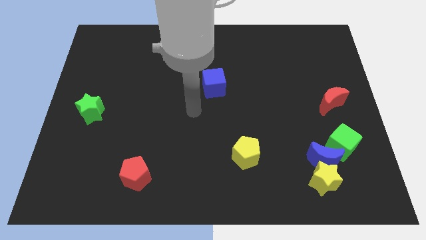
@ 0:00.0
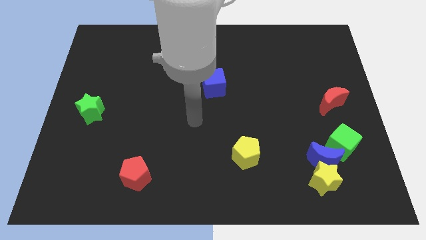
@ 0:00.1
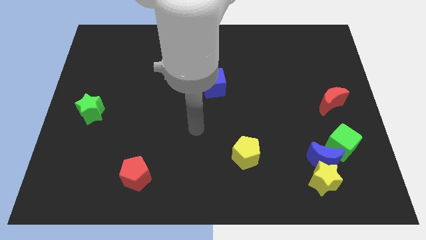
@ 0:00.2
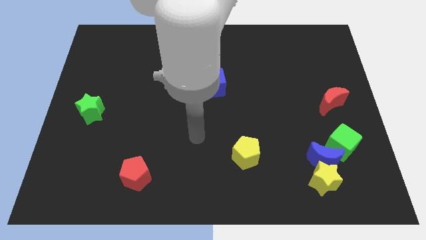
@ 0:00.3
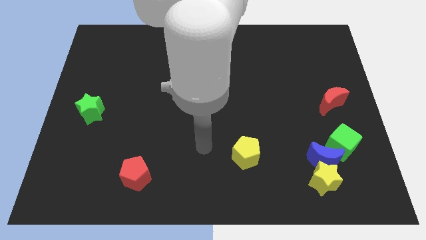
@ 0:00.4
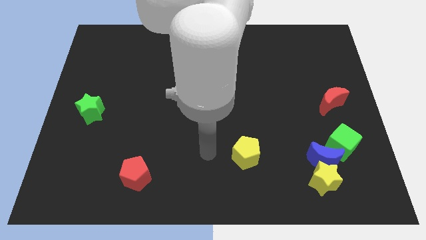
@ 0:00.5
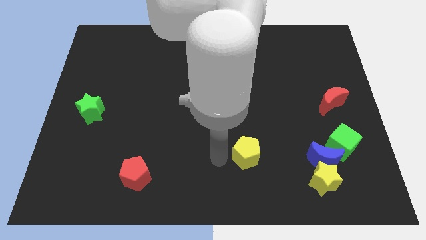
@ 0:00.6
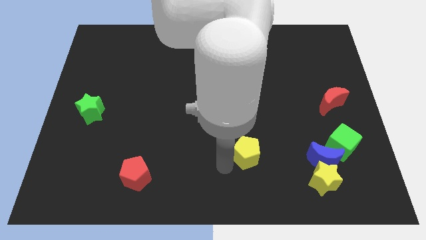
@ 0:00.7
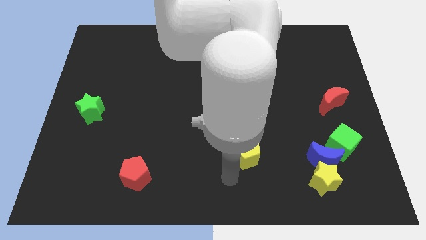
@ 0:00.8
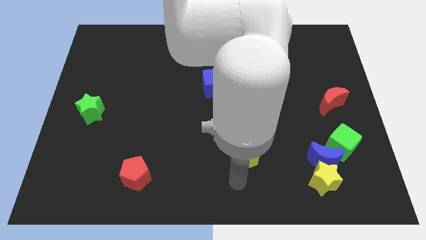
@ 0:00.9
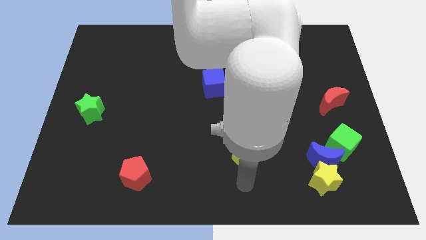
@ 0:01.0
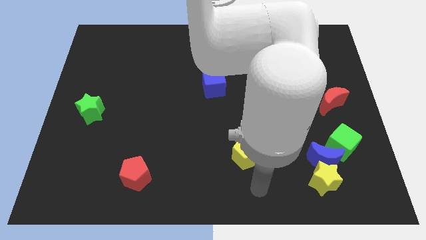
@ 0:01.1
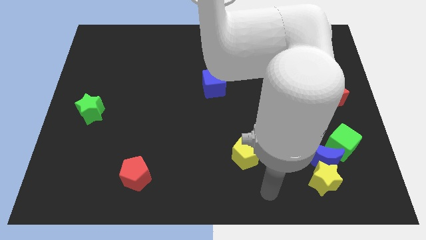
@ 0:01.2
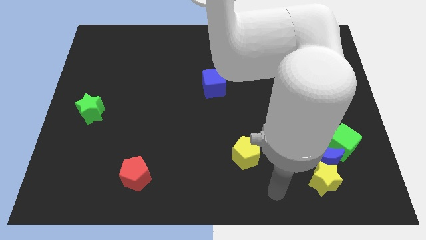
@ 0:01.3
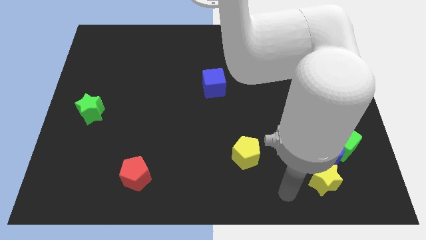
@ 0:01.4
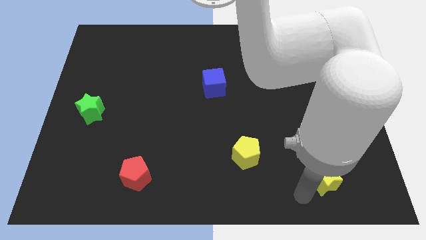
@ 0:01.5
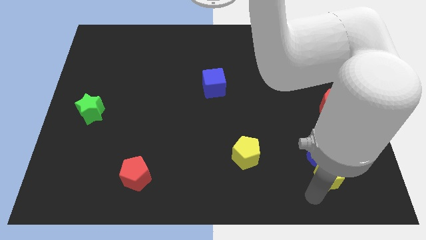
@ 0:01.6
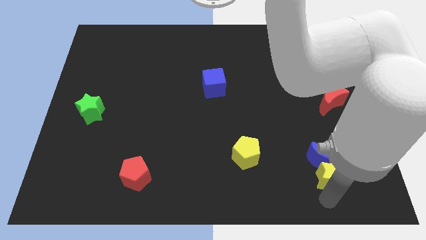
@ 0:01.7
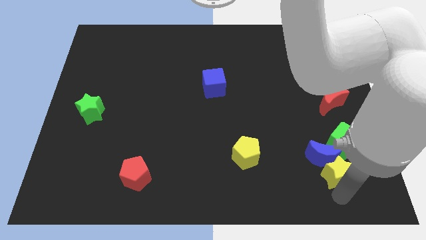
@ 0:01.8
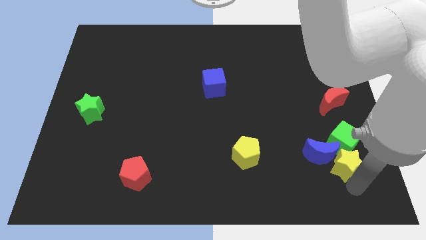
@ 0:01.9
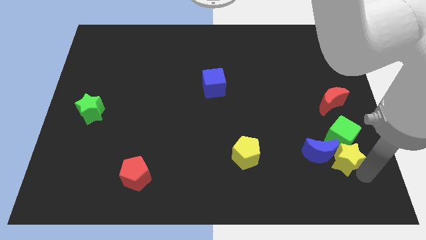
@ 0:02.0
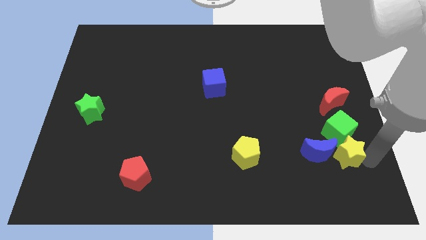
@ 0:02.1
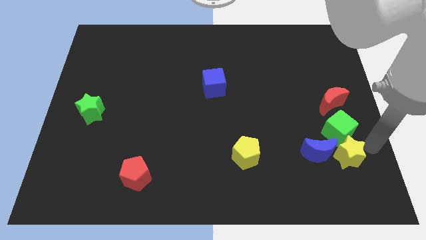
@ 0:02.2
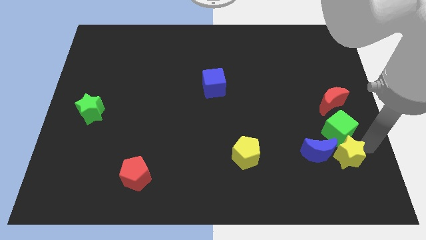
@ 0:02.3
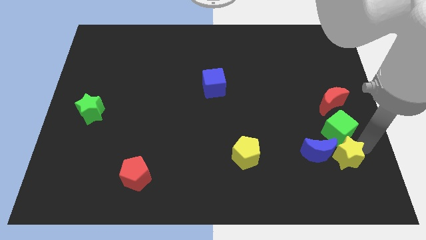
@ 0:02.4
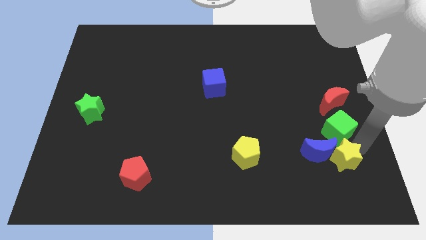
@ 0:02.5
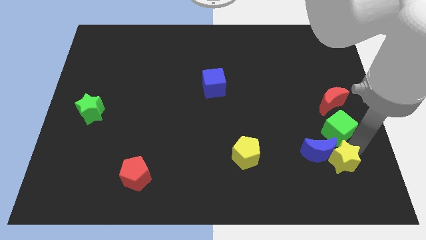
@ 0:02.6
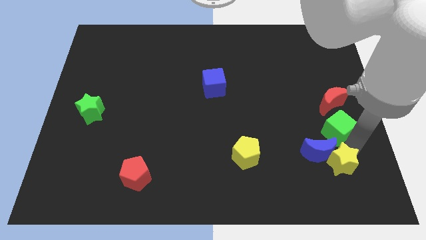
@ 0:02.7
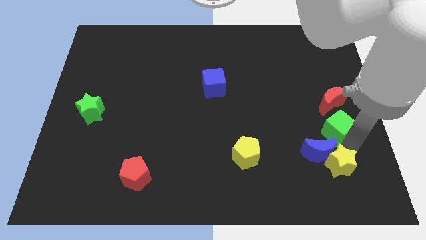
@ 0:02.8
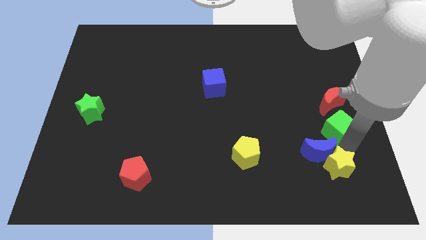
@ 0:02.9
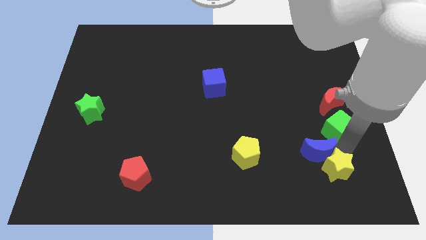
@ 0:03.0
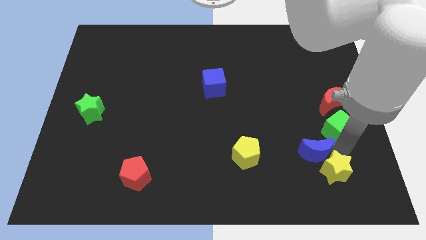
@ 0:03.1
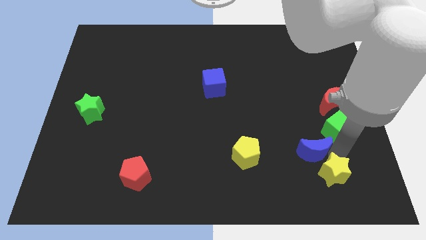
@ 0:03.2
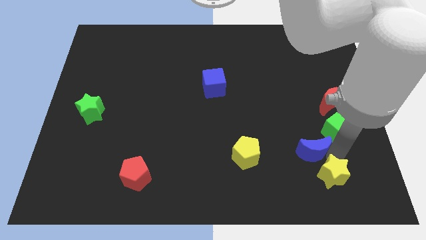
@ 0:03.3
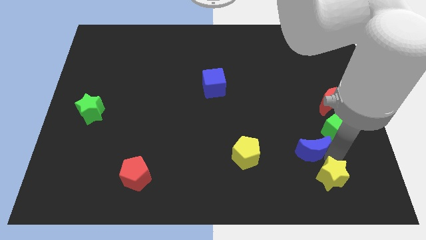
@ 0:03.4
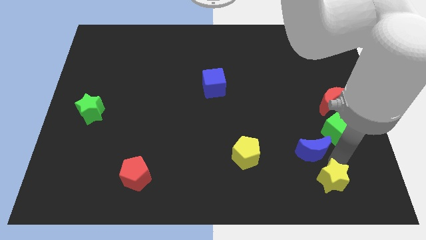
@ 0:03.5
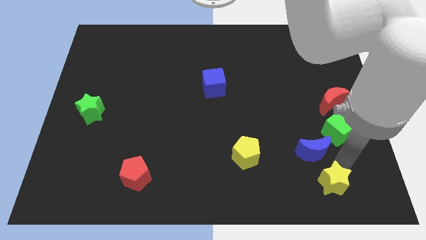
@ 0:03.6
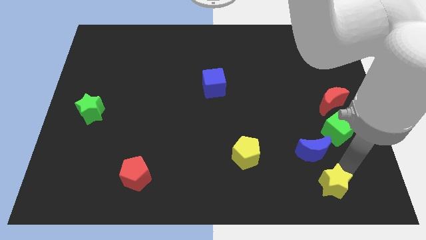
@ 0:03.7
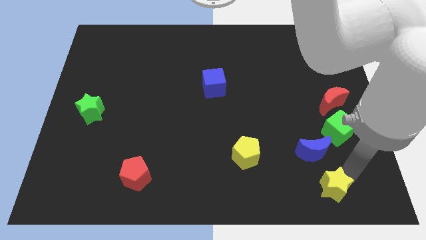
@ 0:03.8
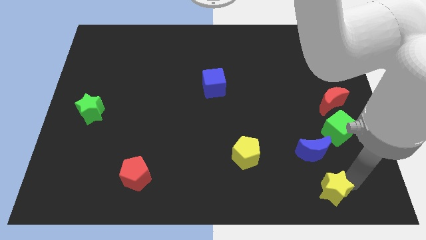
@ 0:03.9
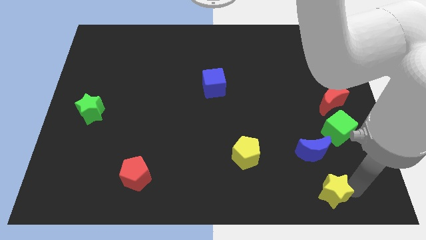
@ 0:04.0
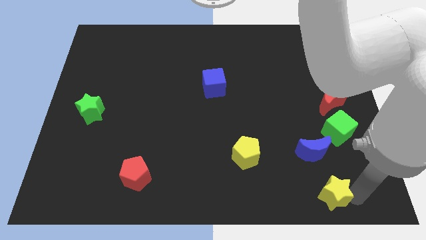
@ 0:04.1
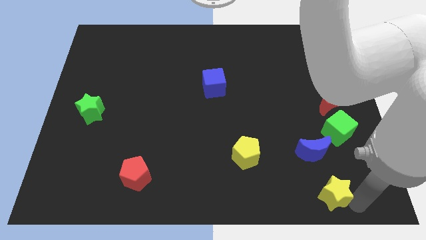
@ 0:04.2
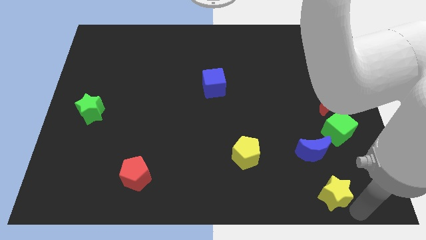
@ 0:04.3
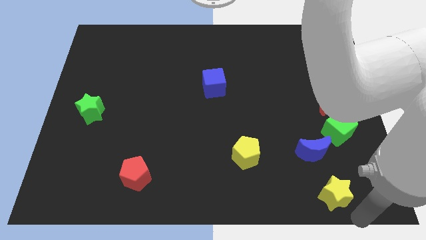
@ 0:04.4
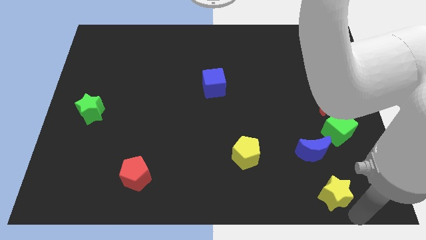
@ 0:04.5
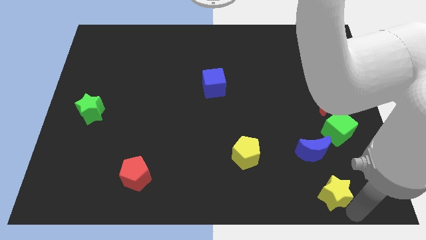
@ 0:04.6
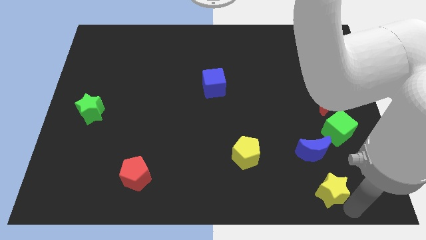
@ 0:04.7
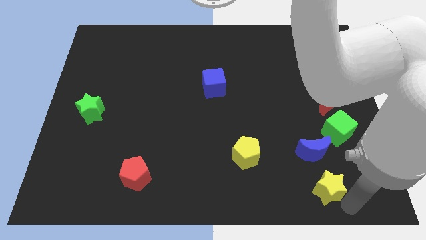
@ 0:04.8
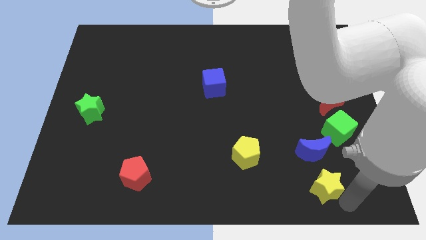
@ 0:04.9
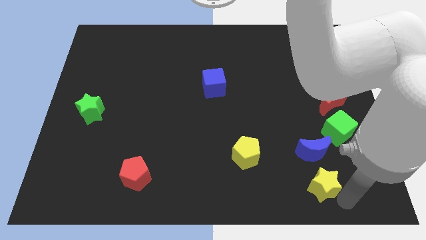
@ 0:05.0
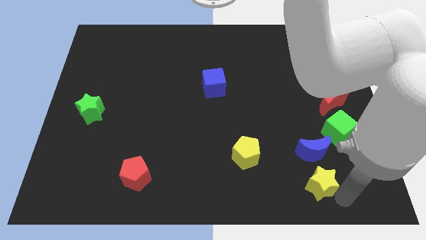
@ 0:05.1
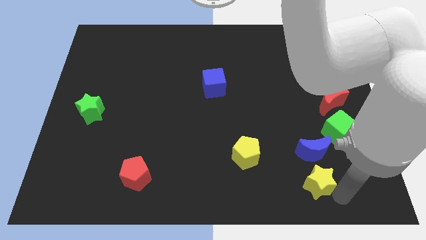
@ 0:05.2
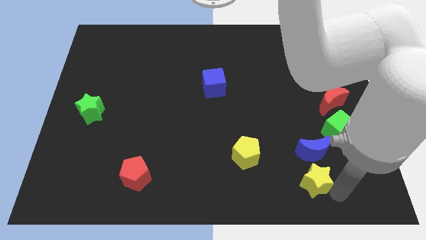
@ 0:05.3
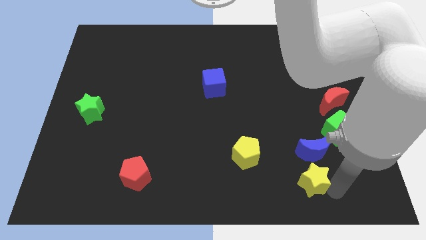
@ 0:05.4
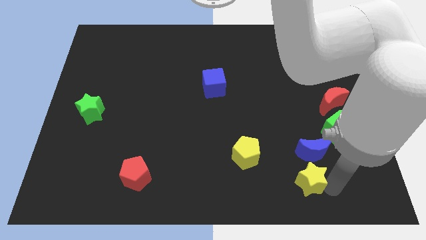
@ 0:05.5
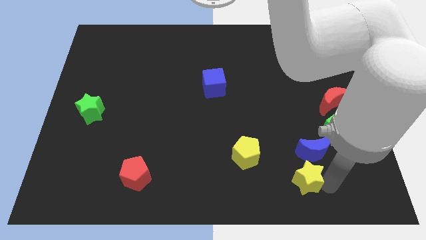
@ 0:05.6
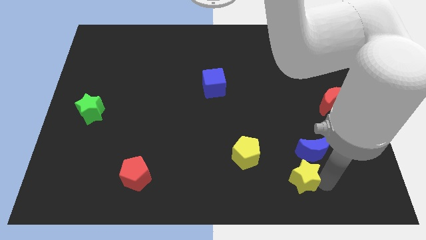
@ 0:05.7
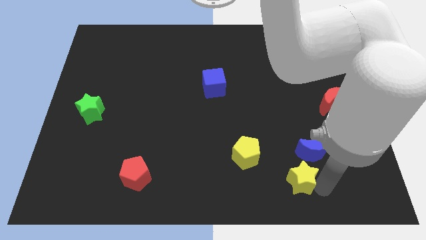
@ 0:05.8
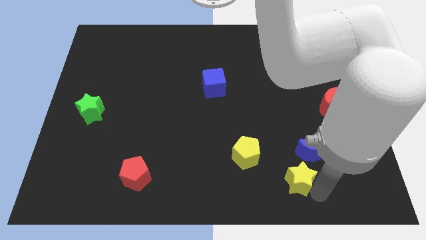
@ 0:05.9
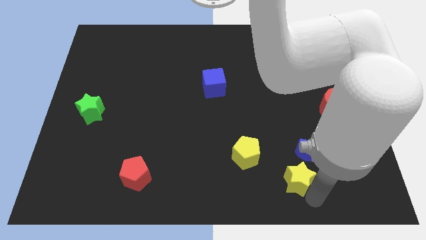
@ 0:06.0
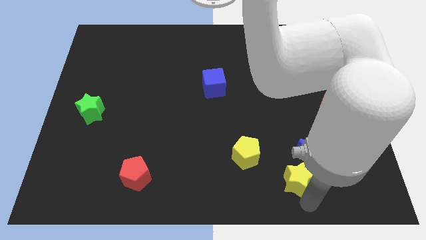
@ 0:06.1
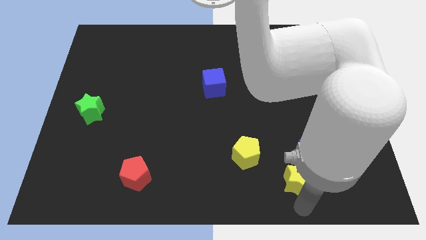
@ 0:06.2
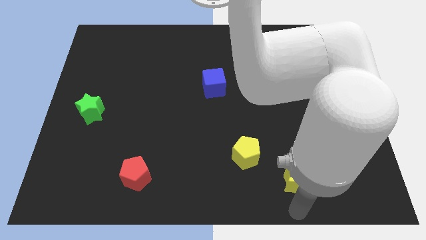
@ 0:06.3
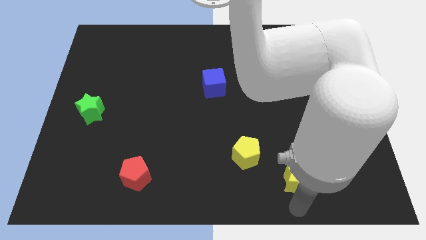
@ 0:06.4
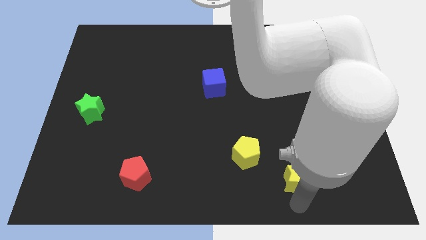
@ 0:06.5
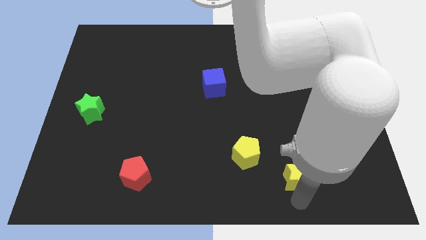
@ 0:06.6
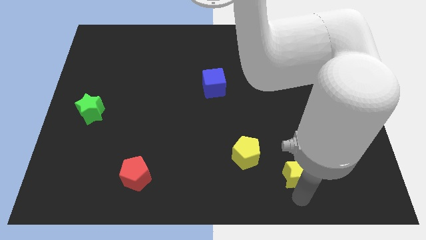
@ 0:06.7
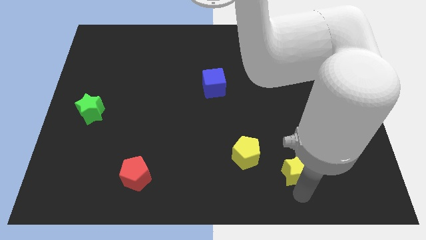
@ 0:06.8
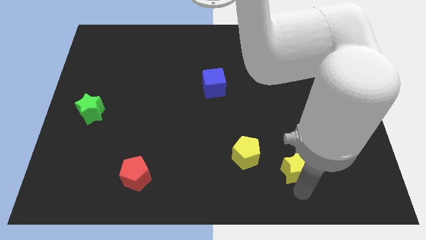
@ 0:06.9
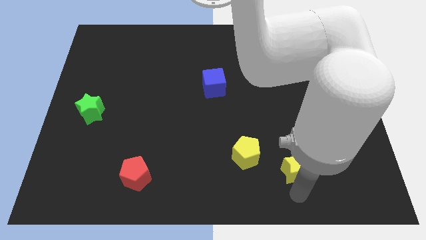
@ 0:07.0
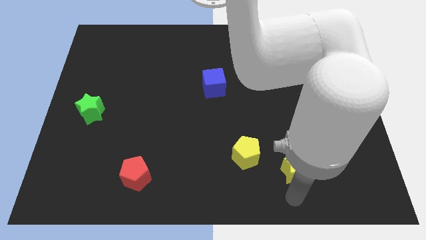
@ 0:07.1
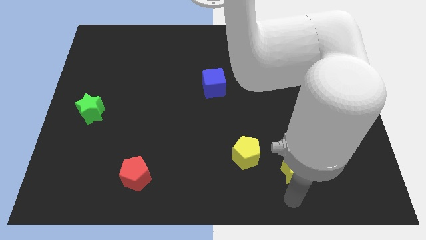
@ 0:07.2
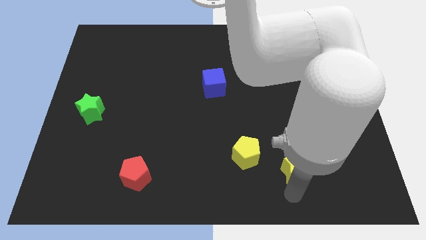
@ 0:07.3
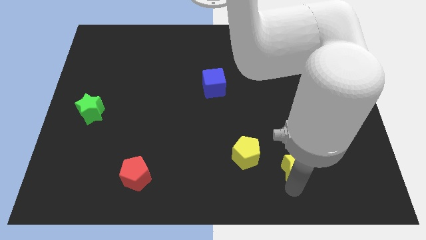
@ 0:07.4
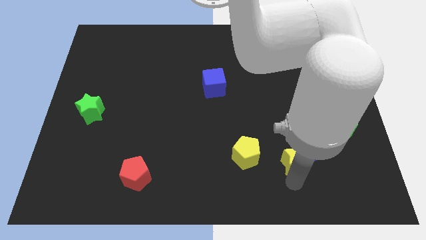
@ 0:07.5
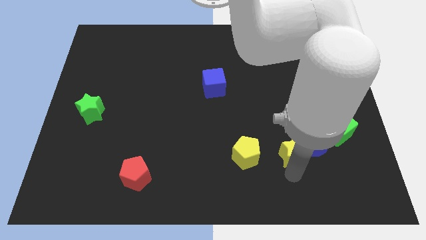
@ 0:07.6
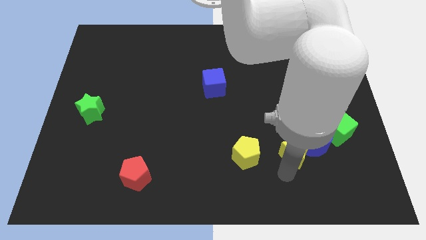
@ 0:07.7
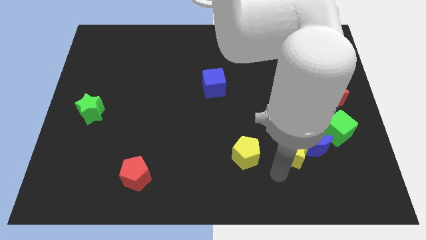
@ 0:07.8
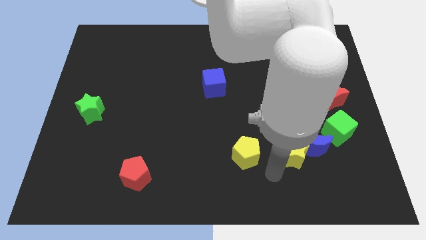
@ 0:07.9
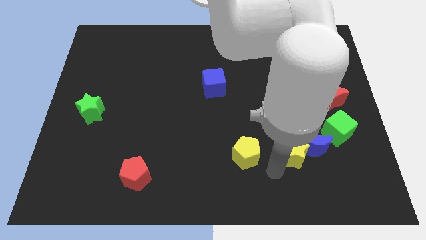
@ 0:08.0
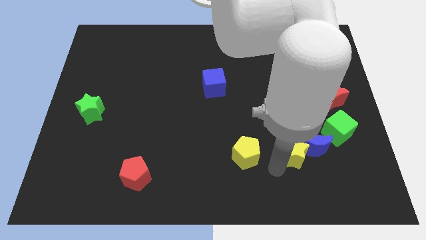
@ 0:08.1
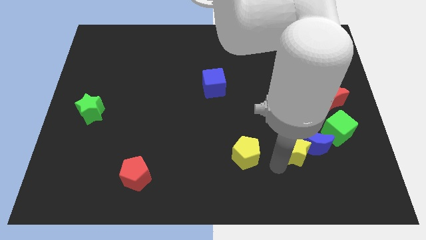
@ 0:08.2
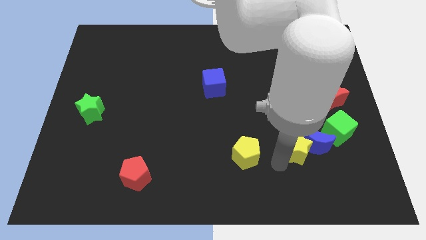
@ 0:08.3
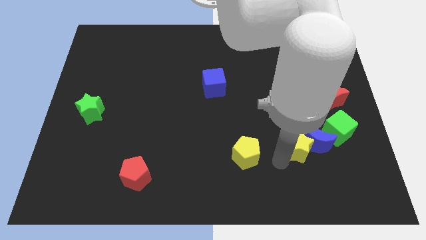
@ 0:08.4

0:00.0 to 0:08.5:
slide the yellow star up somewhat
